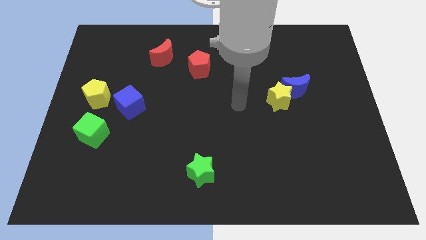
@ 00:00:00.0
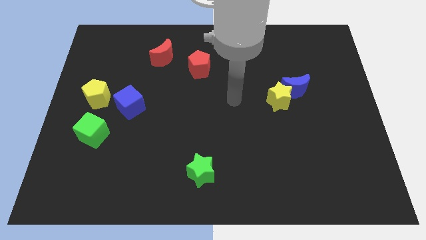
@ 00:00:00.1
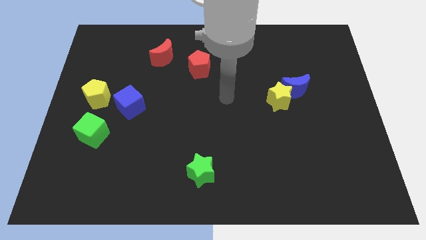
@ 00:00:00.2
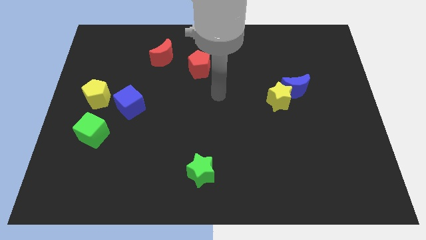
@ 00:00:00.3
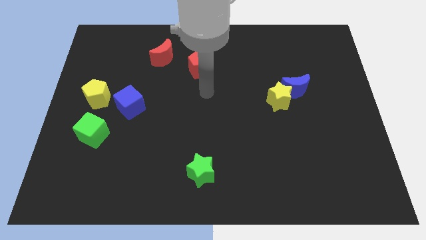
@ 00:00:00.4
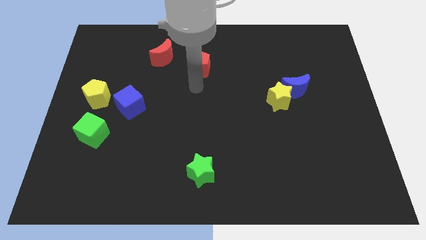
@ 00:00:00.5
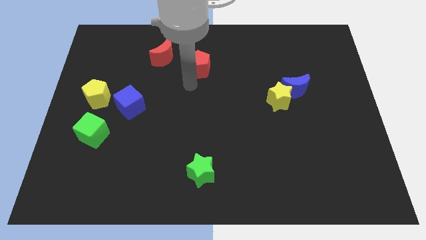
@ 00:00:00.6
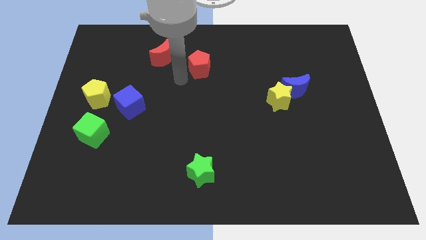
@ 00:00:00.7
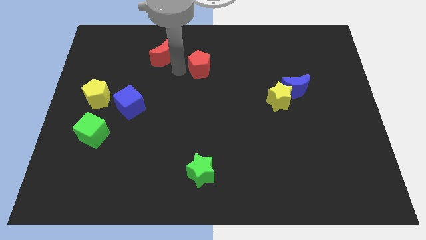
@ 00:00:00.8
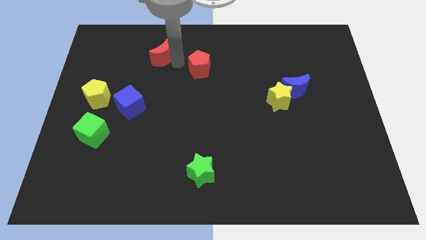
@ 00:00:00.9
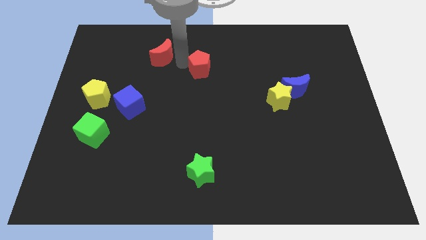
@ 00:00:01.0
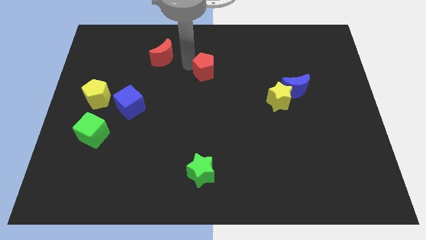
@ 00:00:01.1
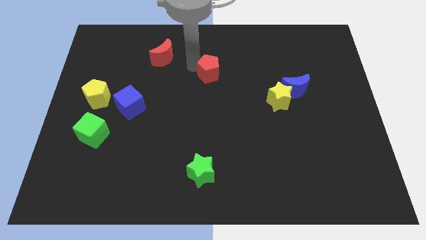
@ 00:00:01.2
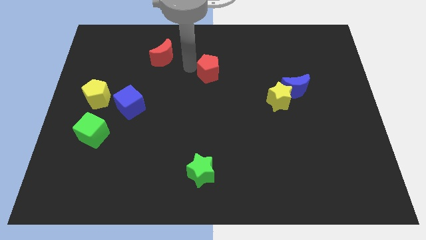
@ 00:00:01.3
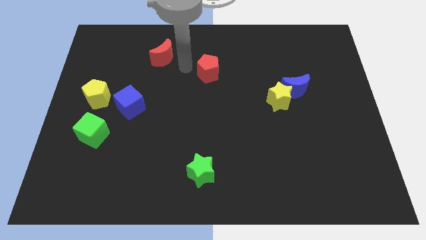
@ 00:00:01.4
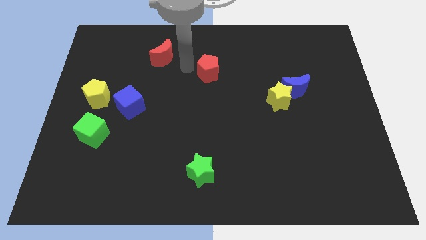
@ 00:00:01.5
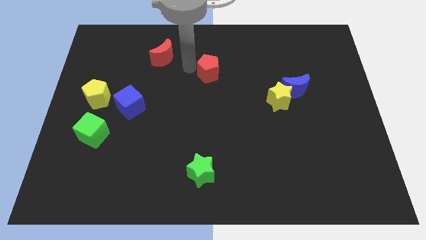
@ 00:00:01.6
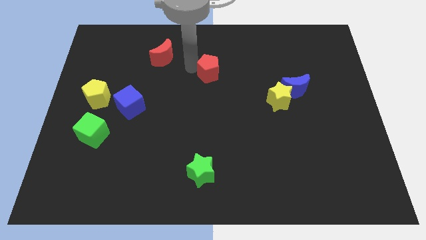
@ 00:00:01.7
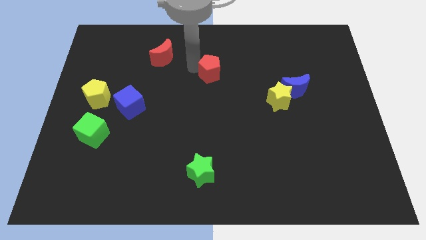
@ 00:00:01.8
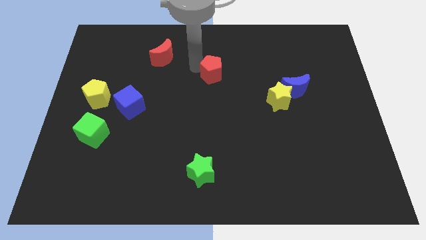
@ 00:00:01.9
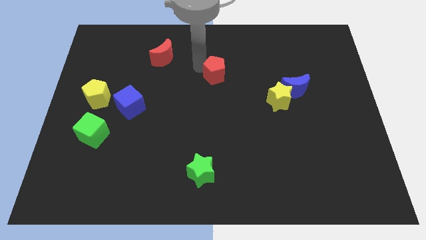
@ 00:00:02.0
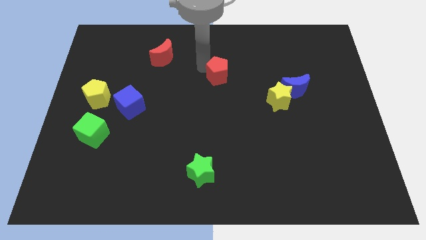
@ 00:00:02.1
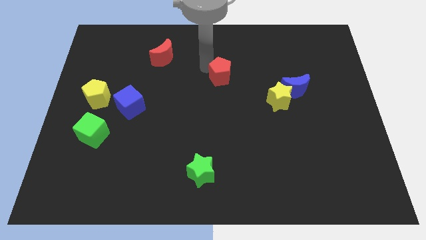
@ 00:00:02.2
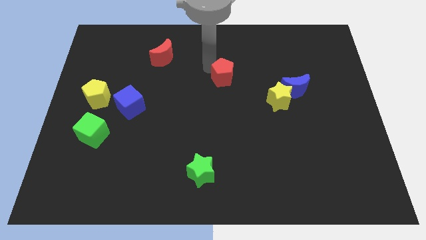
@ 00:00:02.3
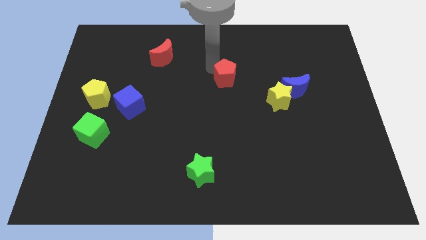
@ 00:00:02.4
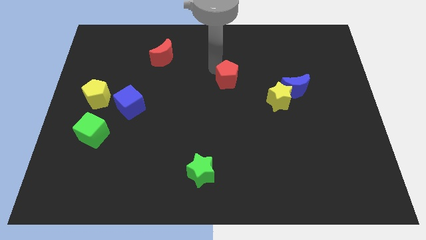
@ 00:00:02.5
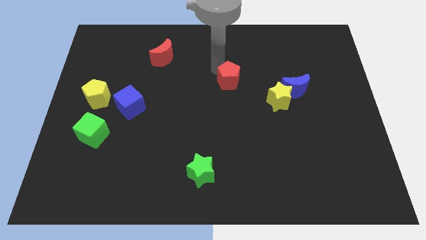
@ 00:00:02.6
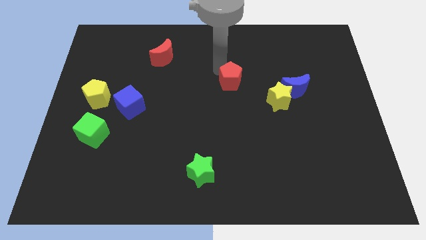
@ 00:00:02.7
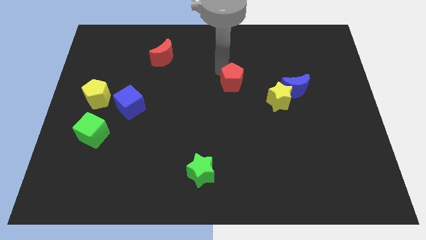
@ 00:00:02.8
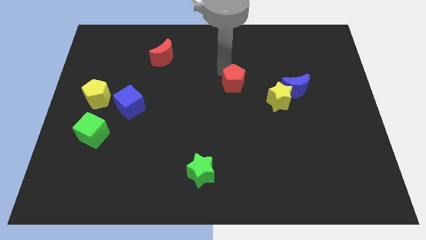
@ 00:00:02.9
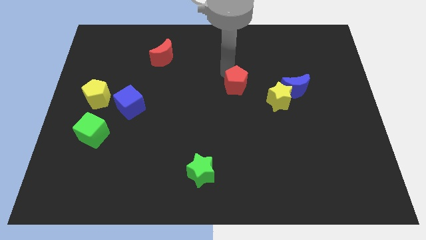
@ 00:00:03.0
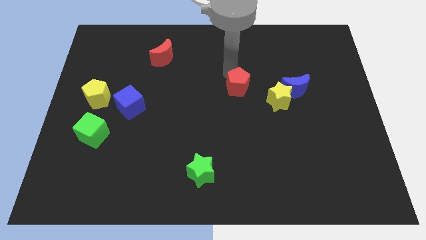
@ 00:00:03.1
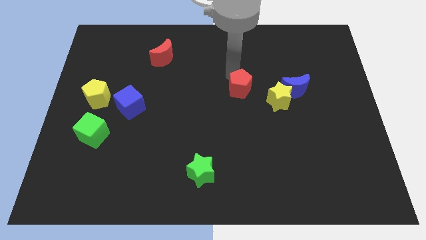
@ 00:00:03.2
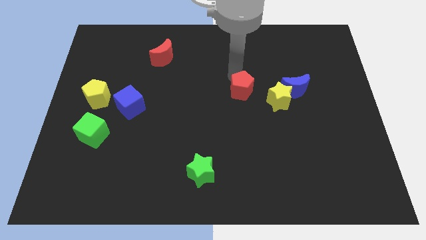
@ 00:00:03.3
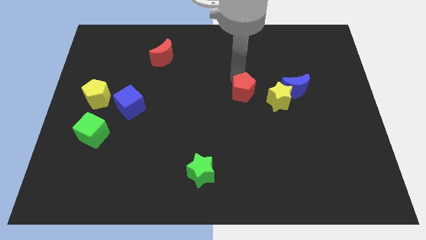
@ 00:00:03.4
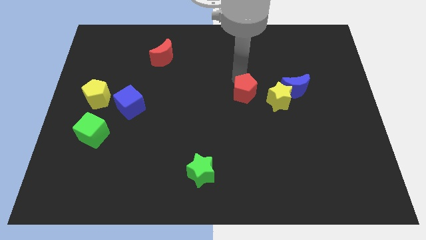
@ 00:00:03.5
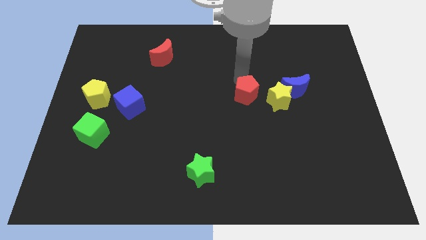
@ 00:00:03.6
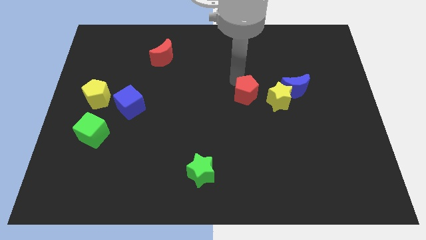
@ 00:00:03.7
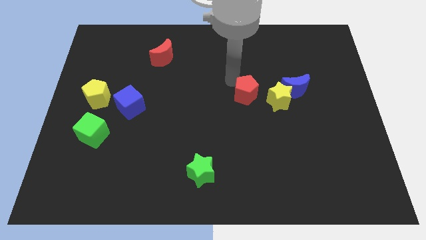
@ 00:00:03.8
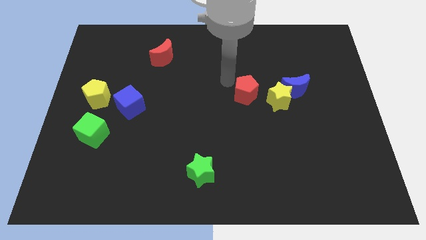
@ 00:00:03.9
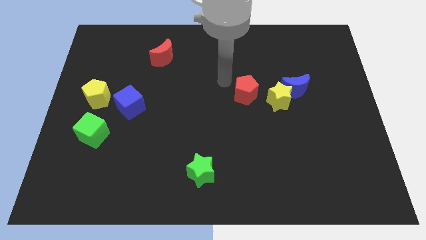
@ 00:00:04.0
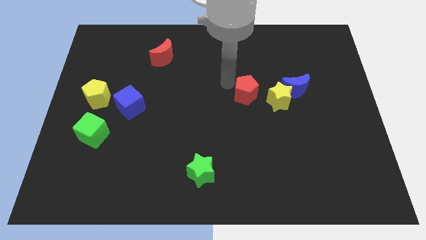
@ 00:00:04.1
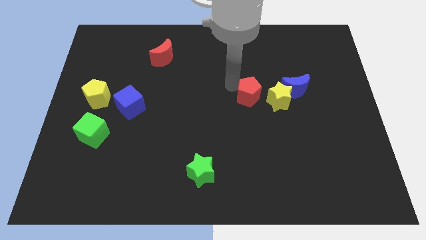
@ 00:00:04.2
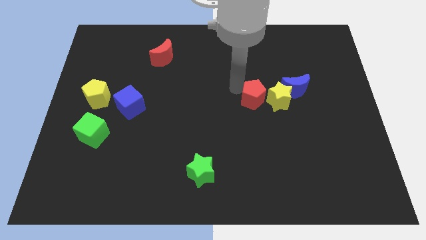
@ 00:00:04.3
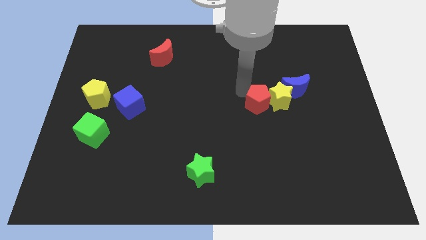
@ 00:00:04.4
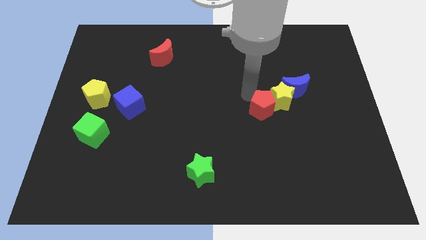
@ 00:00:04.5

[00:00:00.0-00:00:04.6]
slide the red pentagon downwards and then to the right

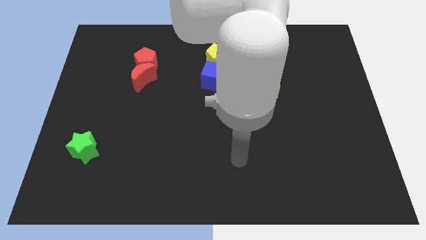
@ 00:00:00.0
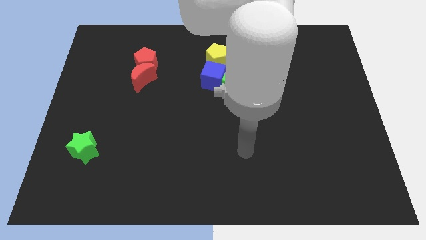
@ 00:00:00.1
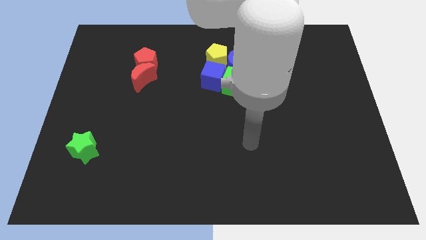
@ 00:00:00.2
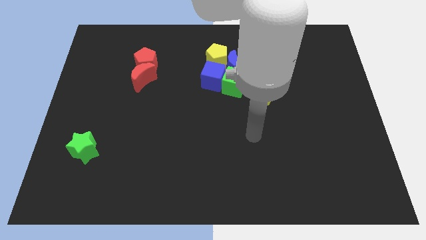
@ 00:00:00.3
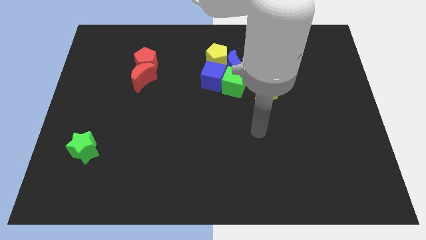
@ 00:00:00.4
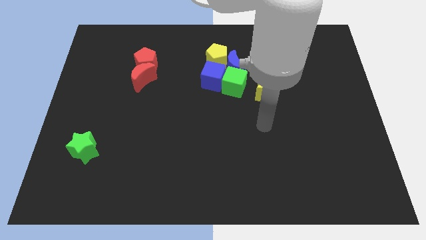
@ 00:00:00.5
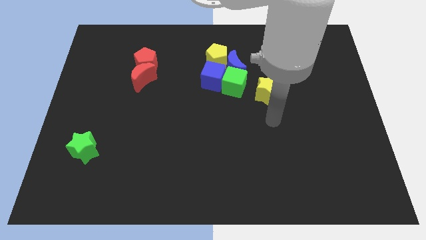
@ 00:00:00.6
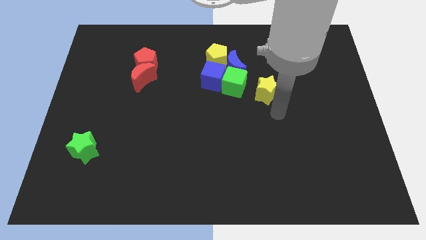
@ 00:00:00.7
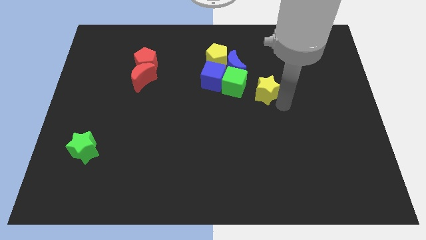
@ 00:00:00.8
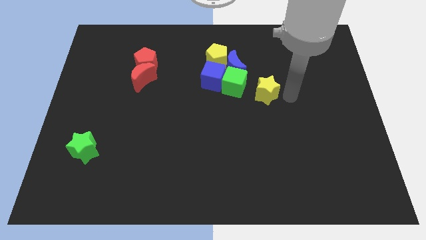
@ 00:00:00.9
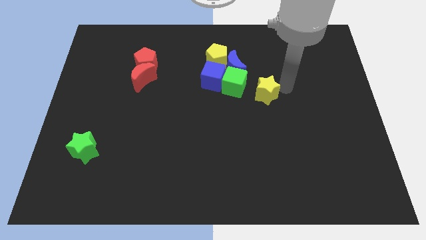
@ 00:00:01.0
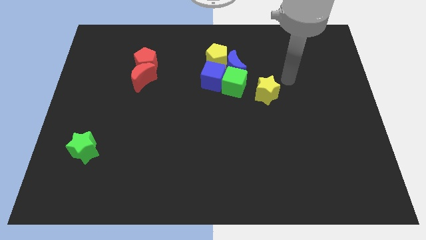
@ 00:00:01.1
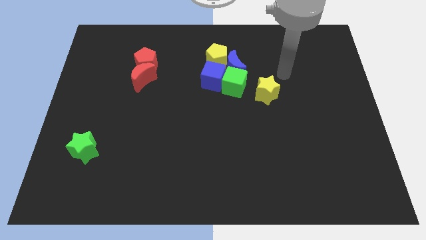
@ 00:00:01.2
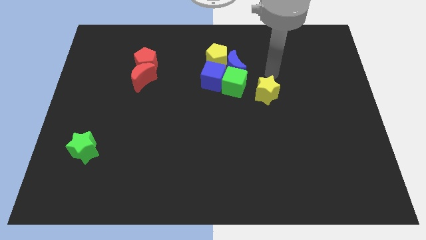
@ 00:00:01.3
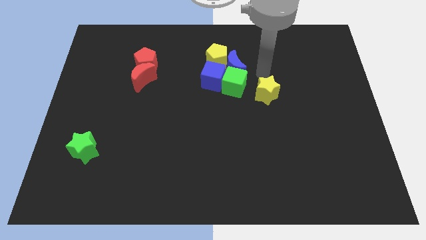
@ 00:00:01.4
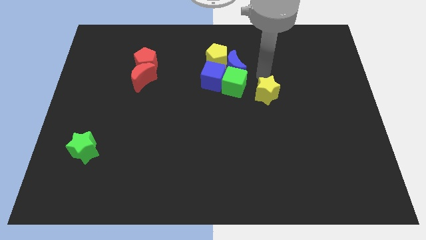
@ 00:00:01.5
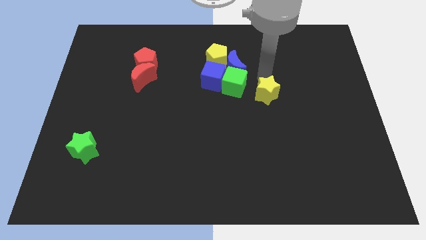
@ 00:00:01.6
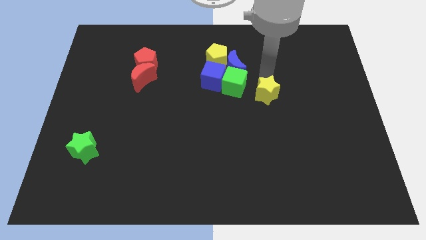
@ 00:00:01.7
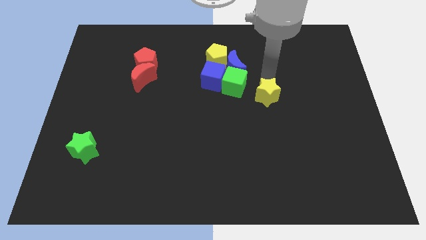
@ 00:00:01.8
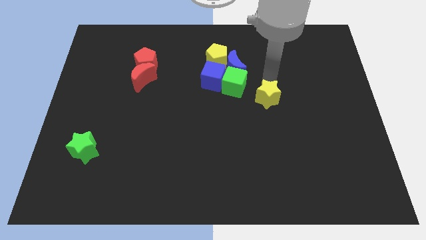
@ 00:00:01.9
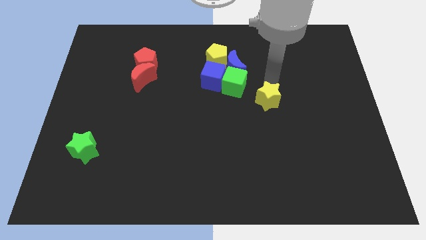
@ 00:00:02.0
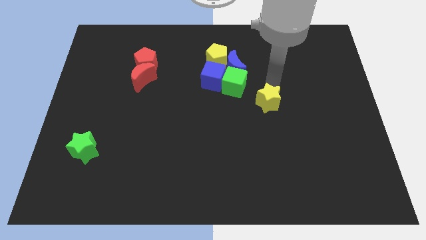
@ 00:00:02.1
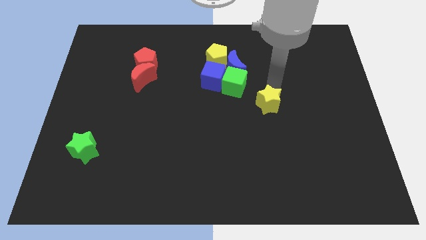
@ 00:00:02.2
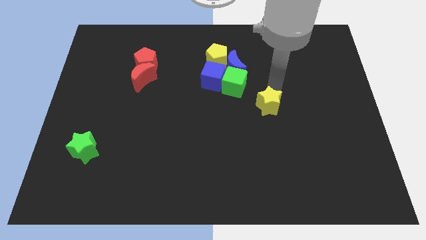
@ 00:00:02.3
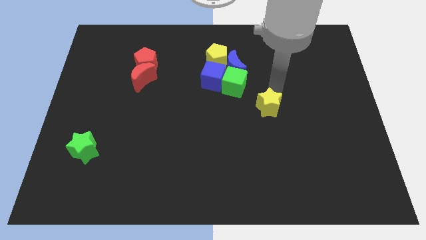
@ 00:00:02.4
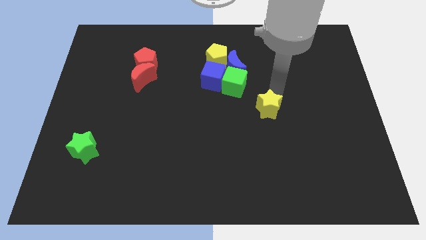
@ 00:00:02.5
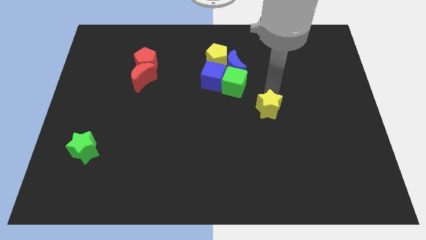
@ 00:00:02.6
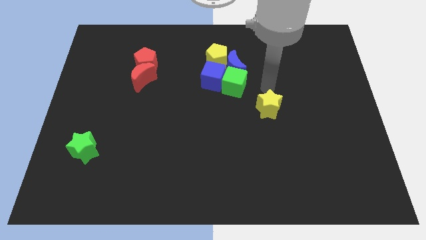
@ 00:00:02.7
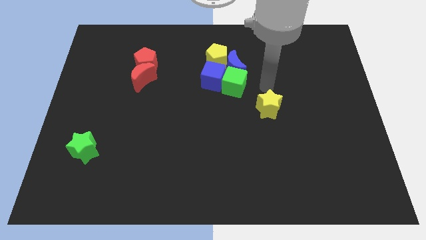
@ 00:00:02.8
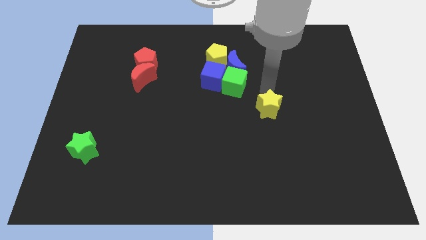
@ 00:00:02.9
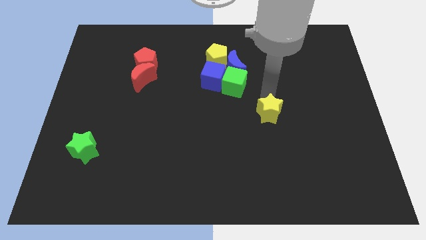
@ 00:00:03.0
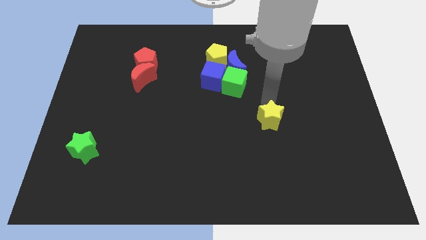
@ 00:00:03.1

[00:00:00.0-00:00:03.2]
slightly push the yellow star down

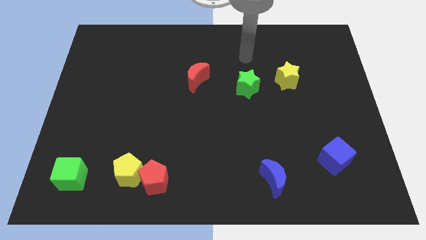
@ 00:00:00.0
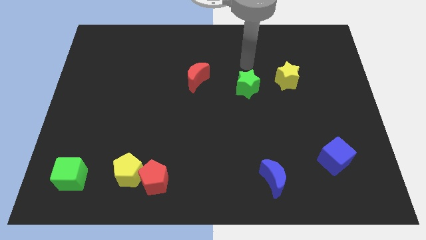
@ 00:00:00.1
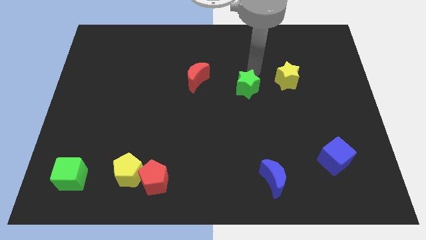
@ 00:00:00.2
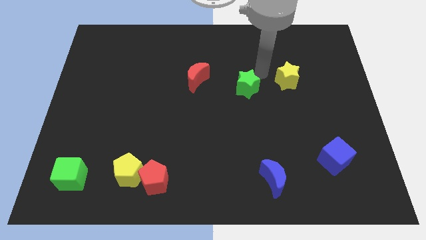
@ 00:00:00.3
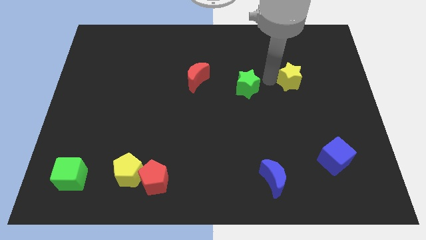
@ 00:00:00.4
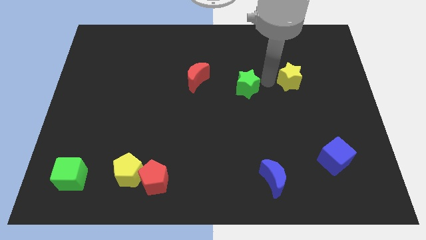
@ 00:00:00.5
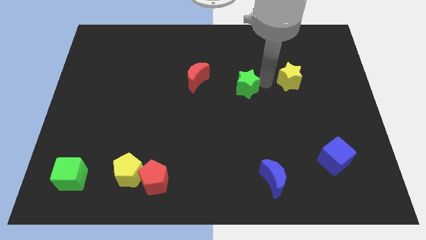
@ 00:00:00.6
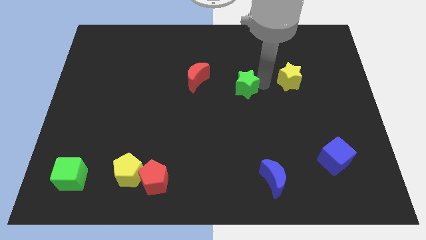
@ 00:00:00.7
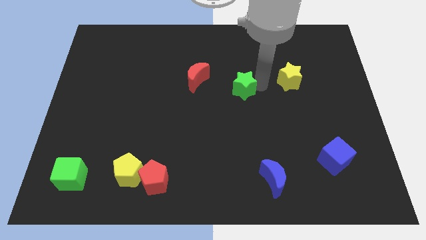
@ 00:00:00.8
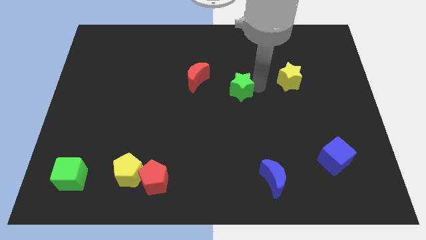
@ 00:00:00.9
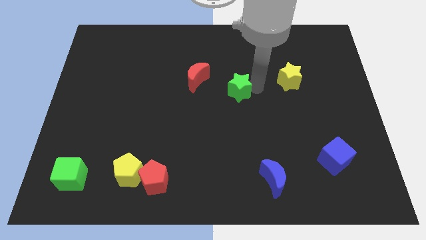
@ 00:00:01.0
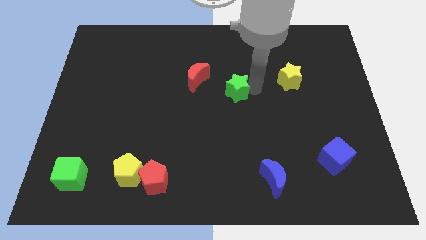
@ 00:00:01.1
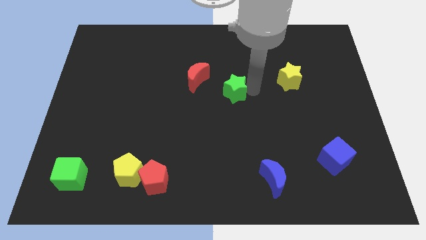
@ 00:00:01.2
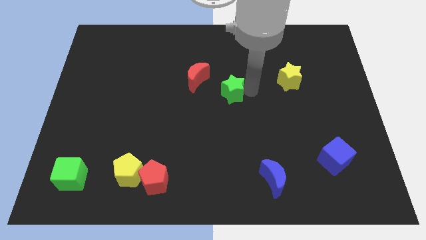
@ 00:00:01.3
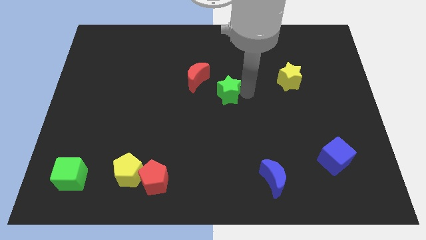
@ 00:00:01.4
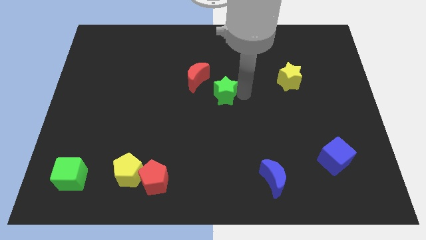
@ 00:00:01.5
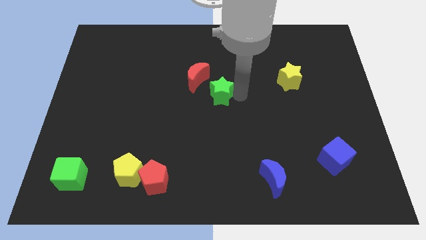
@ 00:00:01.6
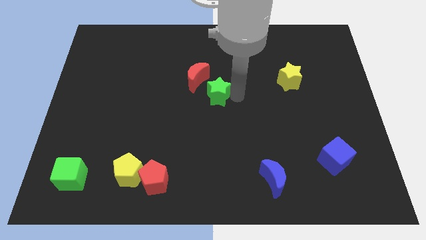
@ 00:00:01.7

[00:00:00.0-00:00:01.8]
move the green star a little left
